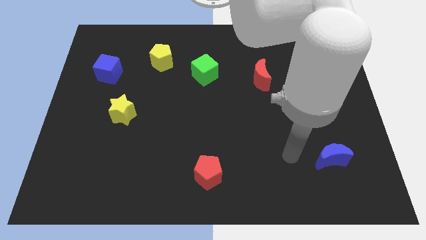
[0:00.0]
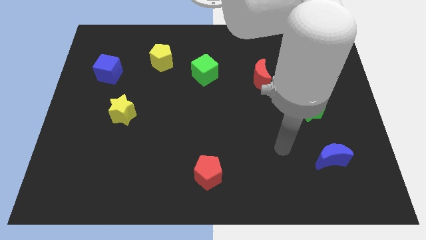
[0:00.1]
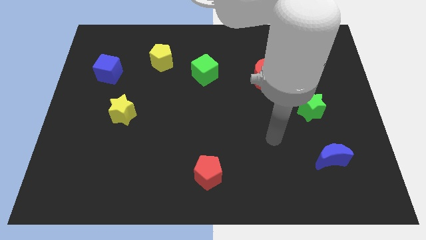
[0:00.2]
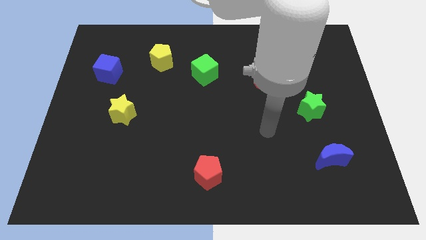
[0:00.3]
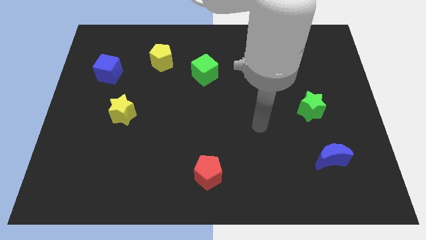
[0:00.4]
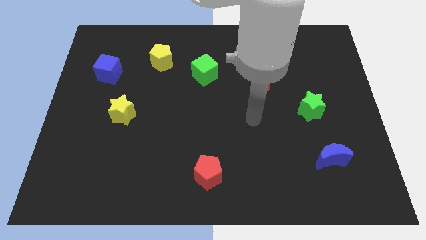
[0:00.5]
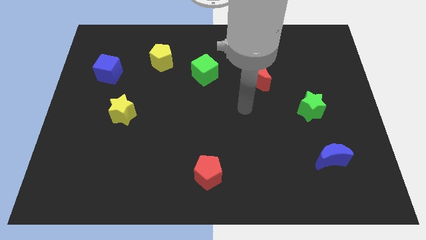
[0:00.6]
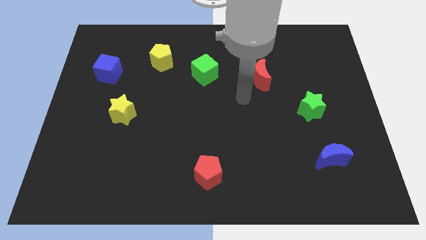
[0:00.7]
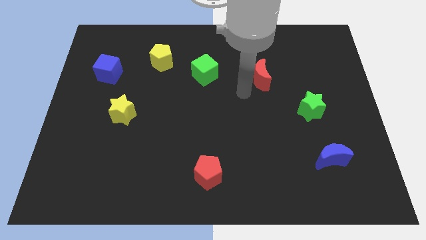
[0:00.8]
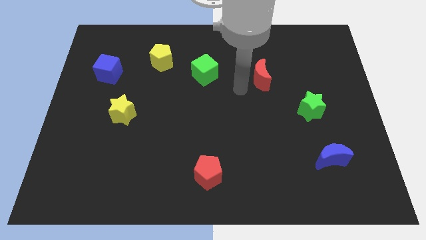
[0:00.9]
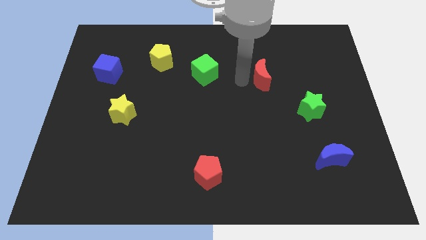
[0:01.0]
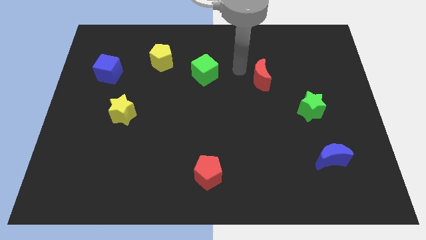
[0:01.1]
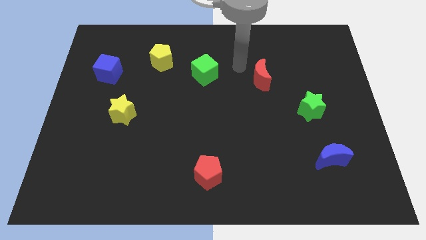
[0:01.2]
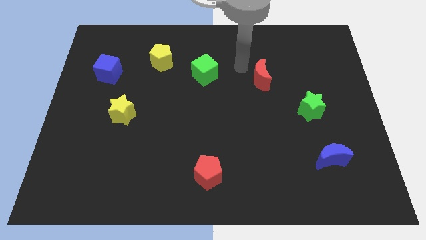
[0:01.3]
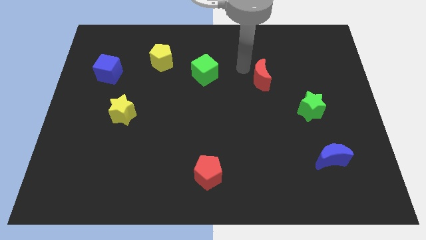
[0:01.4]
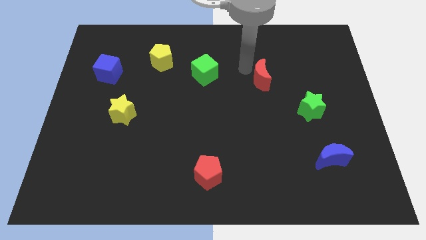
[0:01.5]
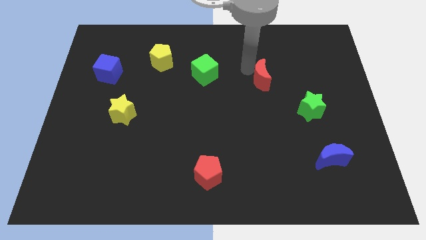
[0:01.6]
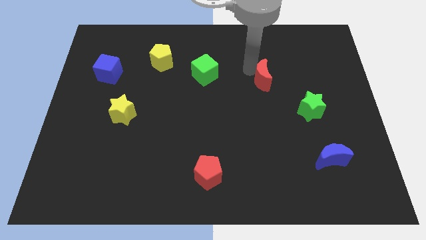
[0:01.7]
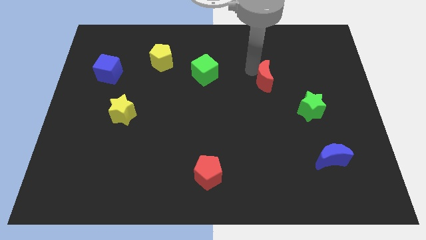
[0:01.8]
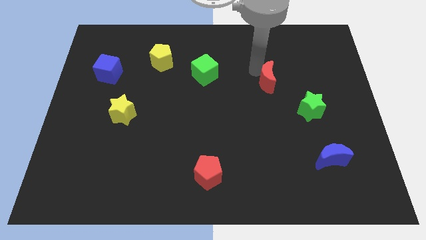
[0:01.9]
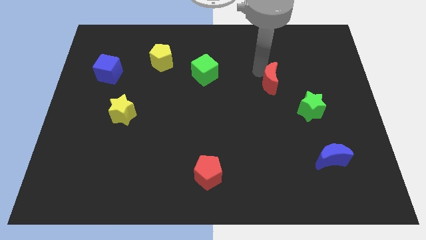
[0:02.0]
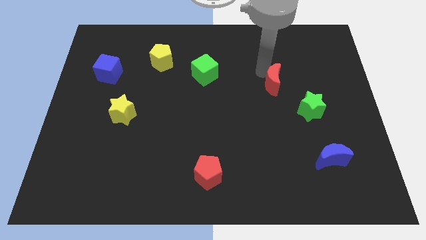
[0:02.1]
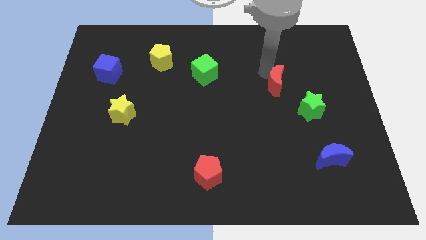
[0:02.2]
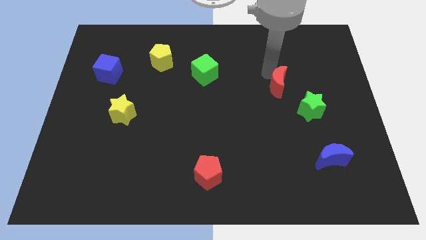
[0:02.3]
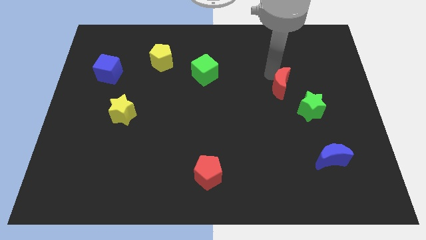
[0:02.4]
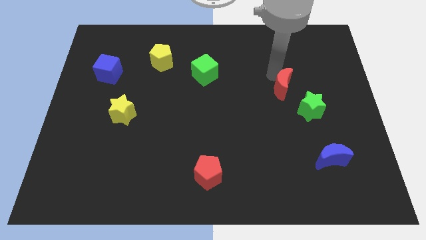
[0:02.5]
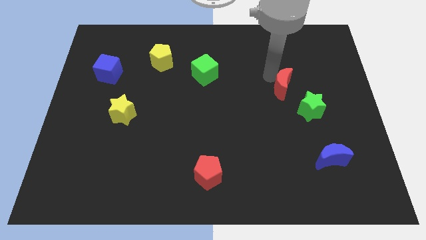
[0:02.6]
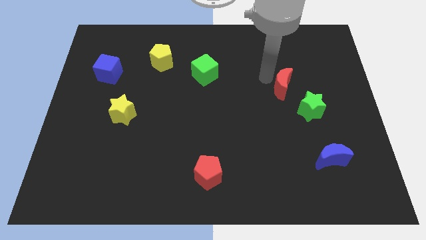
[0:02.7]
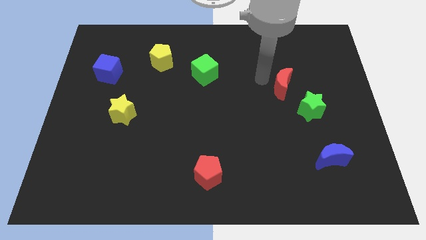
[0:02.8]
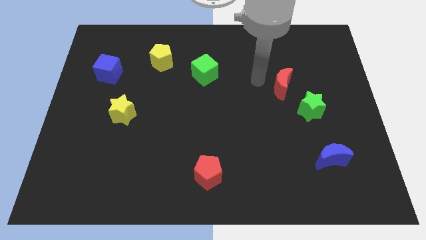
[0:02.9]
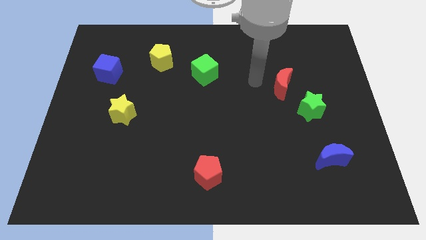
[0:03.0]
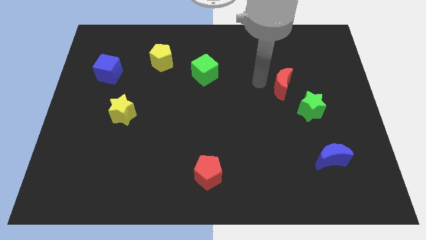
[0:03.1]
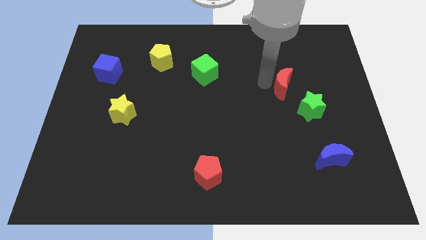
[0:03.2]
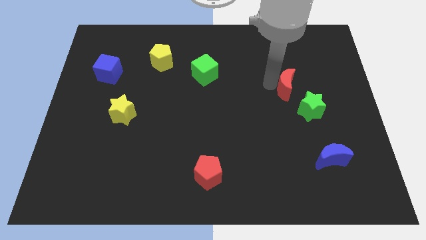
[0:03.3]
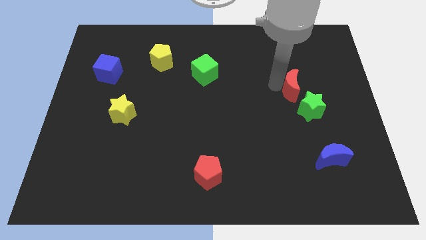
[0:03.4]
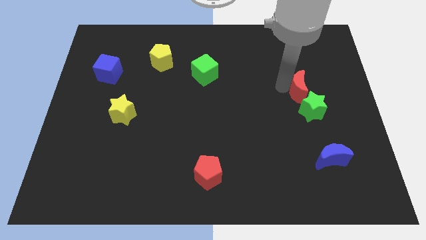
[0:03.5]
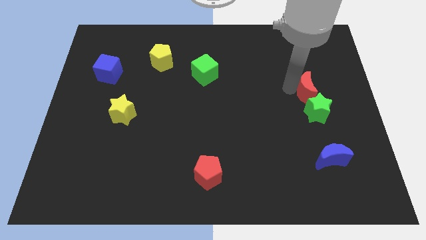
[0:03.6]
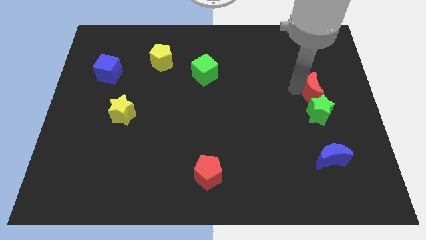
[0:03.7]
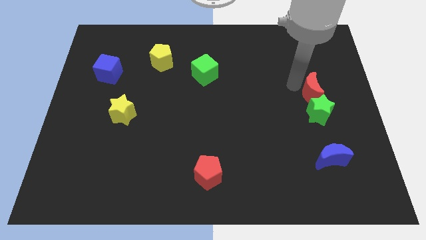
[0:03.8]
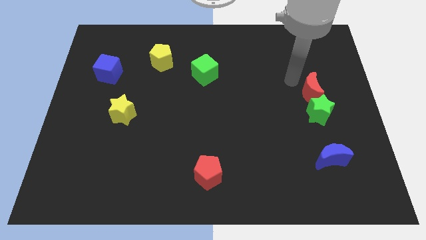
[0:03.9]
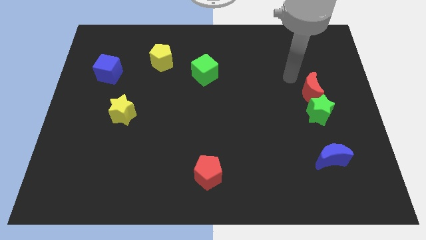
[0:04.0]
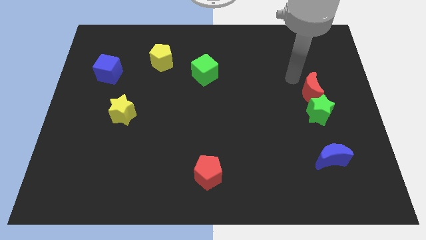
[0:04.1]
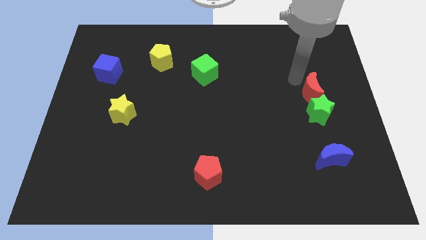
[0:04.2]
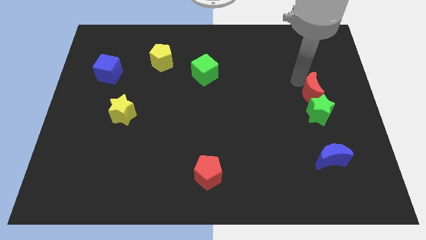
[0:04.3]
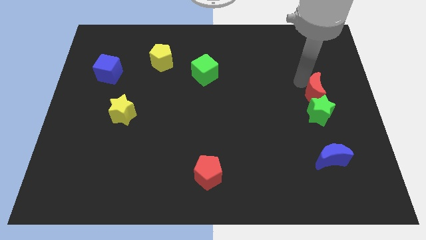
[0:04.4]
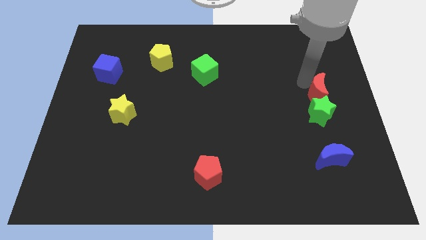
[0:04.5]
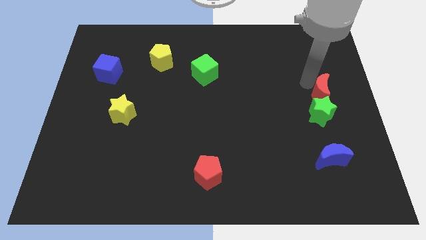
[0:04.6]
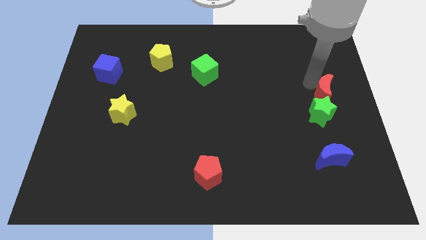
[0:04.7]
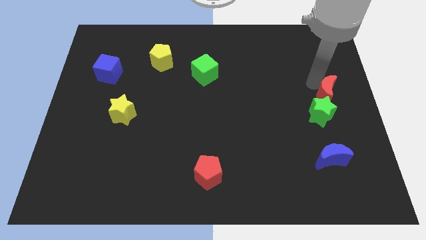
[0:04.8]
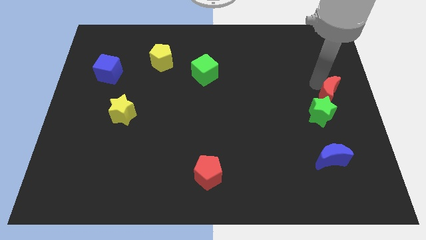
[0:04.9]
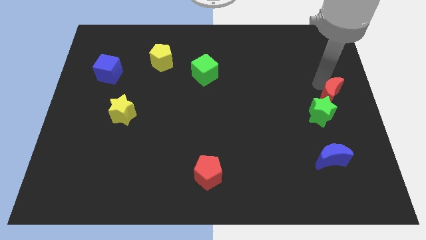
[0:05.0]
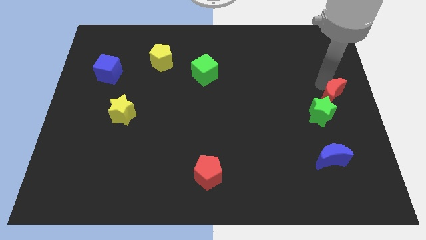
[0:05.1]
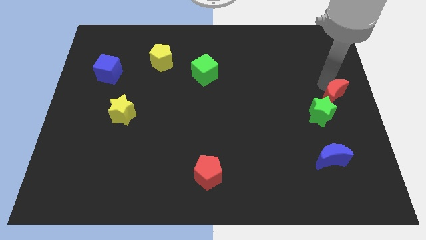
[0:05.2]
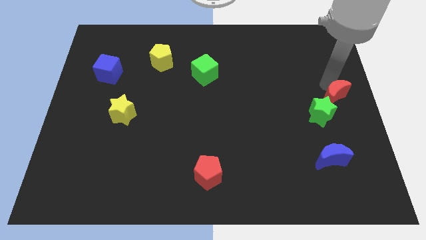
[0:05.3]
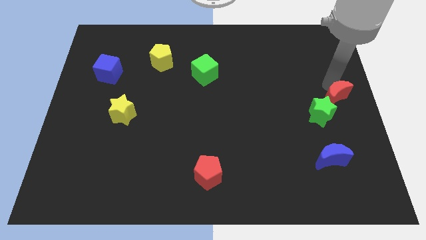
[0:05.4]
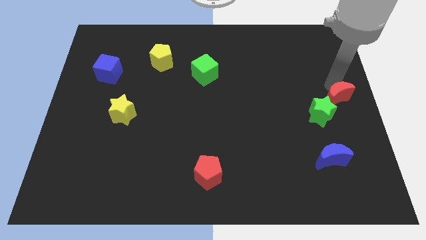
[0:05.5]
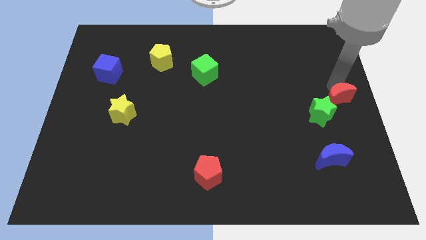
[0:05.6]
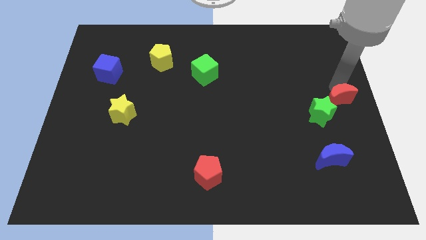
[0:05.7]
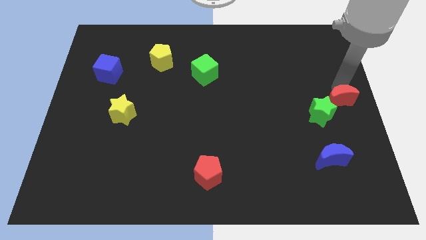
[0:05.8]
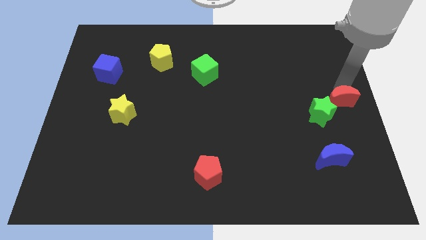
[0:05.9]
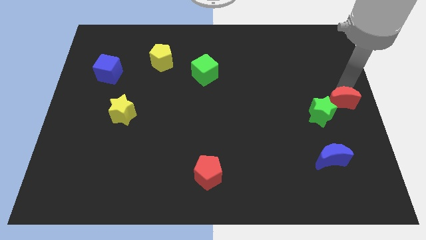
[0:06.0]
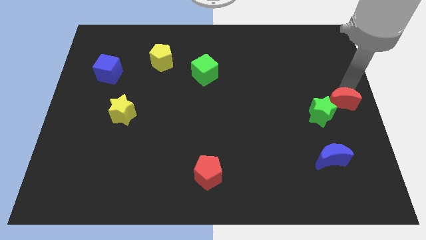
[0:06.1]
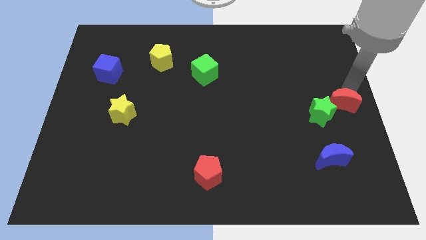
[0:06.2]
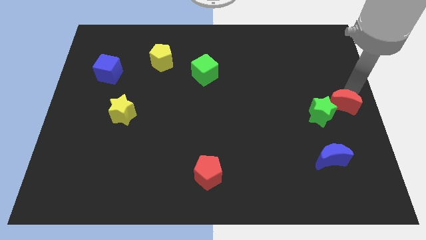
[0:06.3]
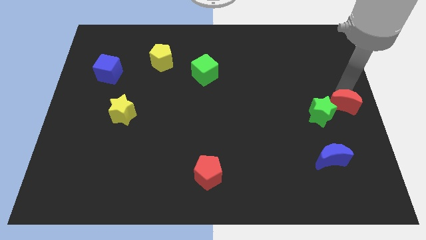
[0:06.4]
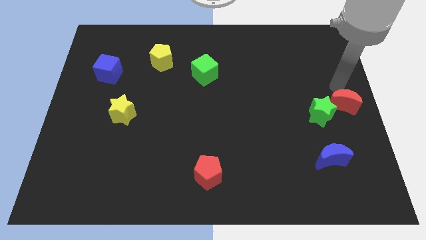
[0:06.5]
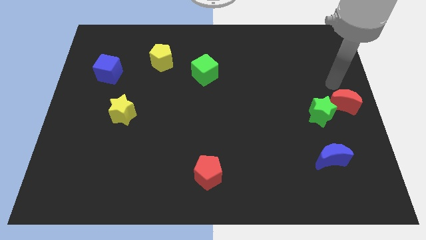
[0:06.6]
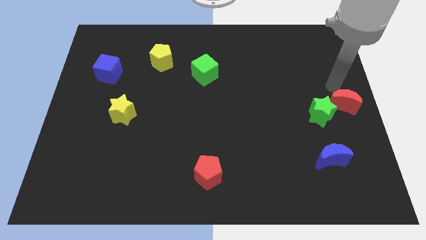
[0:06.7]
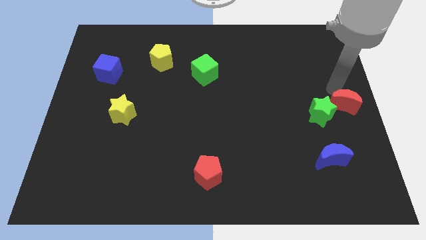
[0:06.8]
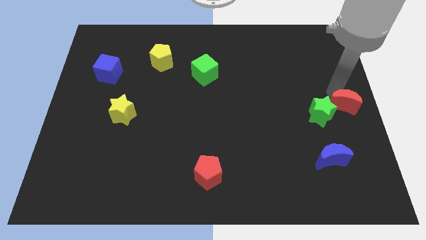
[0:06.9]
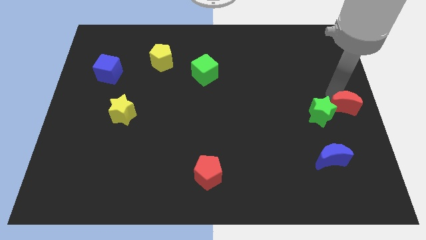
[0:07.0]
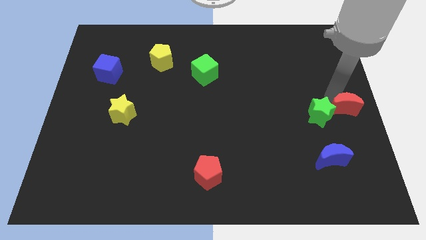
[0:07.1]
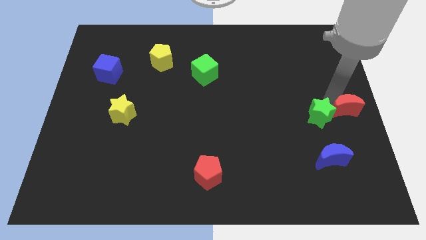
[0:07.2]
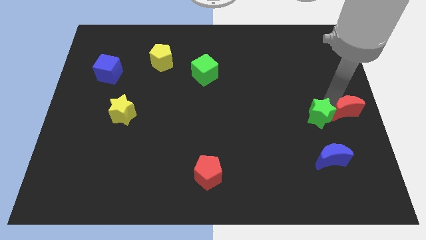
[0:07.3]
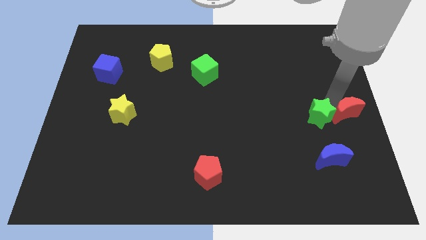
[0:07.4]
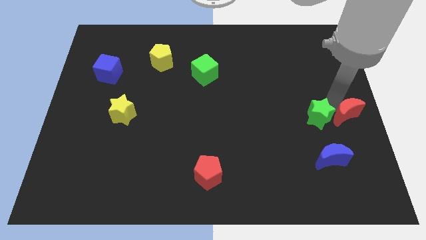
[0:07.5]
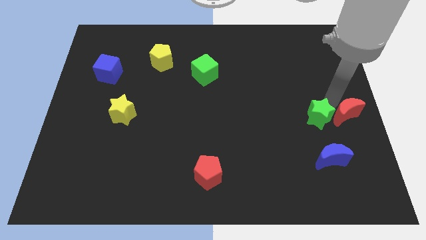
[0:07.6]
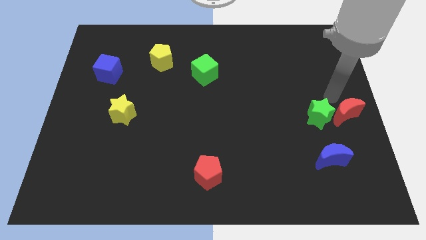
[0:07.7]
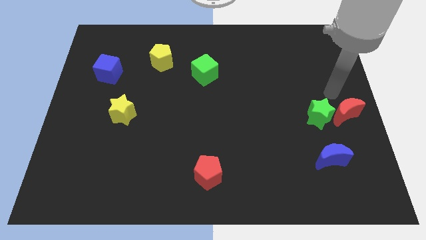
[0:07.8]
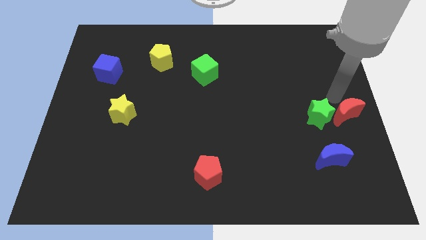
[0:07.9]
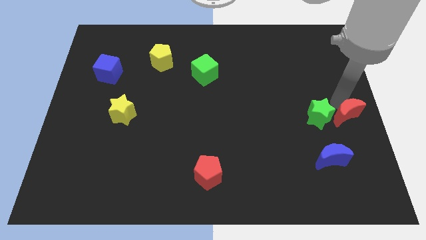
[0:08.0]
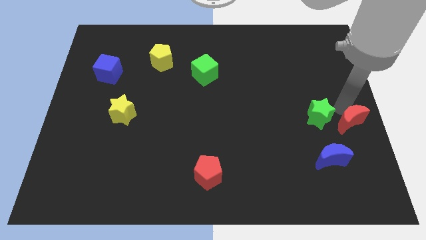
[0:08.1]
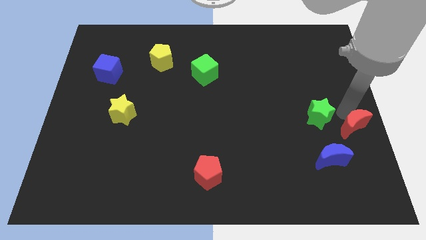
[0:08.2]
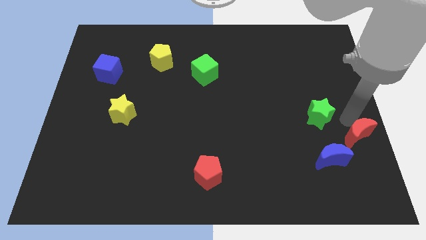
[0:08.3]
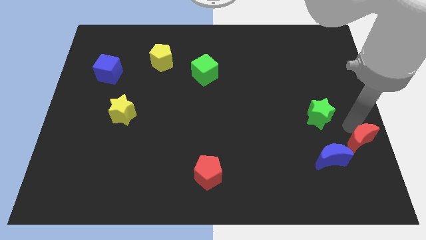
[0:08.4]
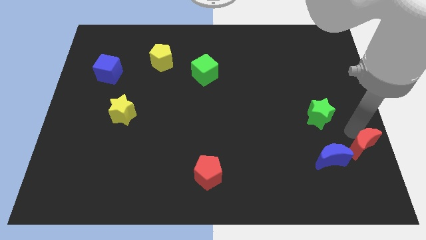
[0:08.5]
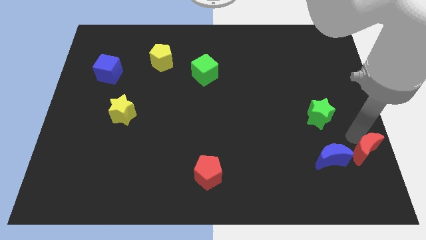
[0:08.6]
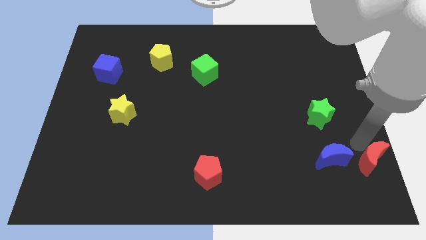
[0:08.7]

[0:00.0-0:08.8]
push the red moon to the bottom right
